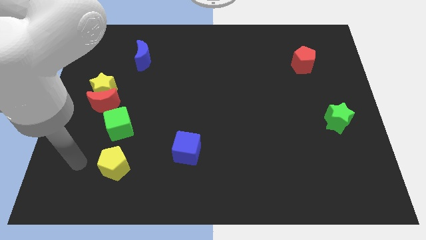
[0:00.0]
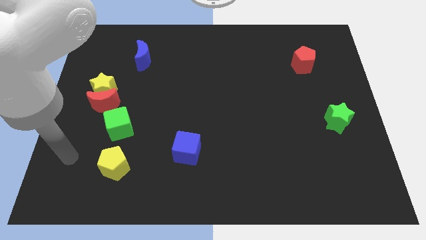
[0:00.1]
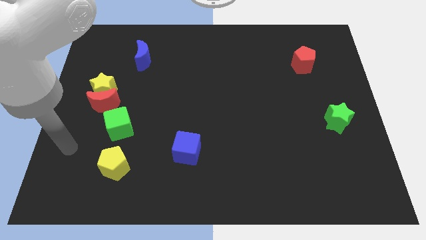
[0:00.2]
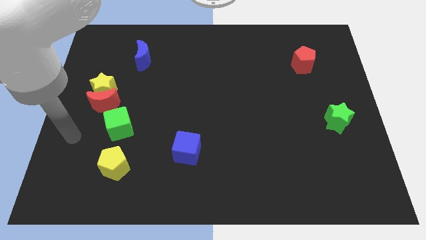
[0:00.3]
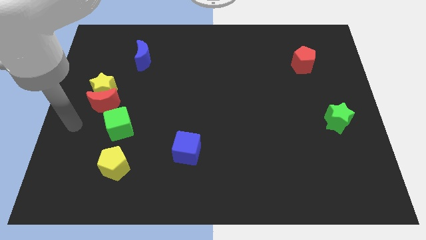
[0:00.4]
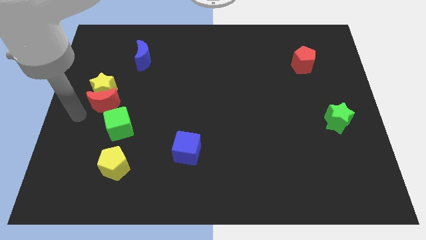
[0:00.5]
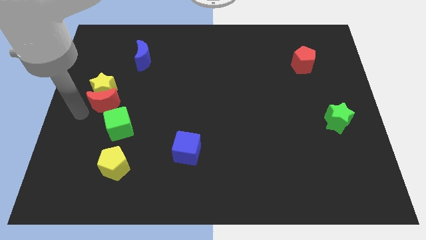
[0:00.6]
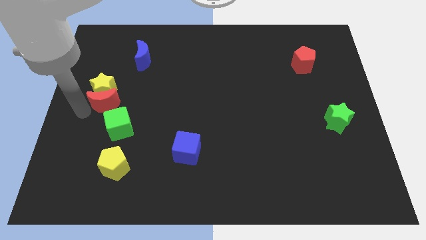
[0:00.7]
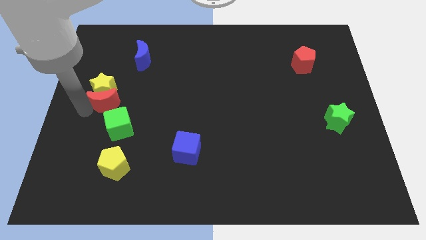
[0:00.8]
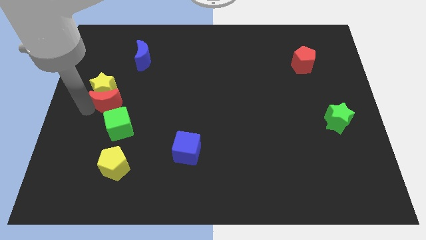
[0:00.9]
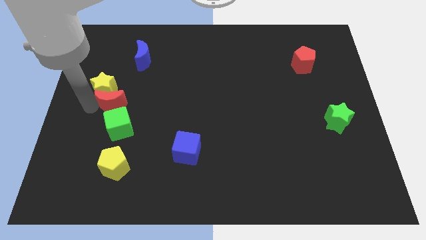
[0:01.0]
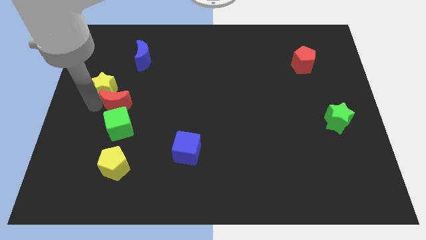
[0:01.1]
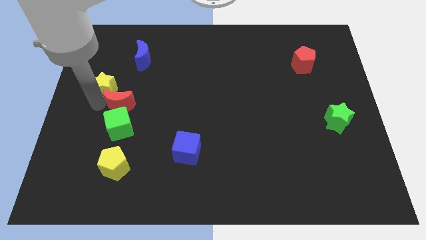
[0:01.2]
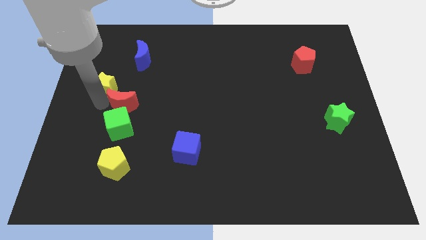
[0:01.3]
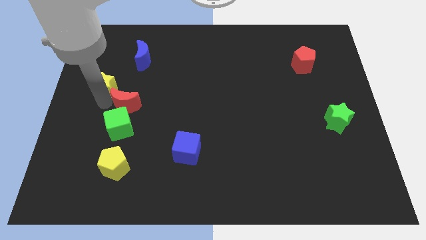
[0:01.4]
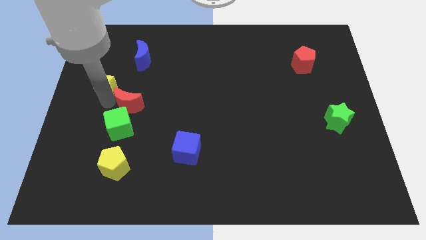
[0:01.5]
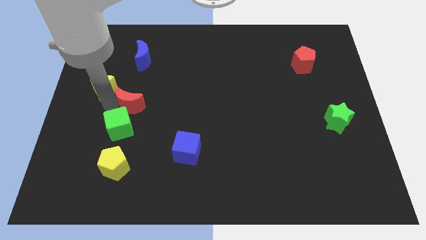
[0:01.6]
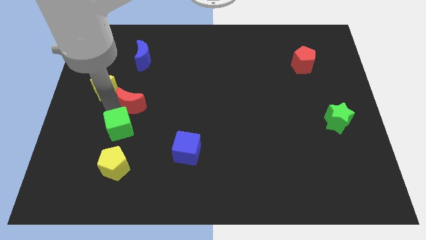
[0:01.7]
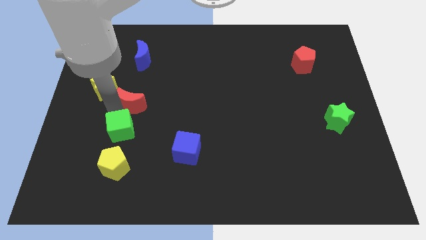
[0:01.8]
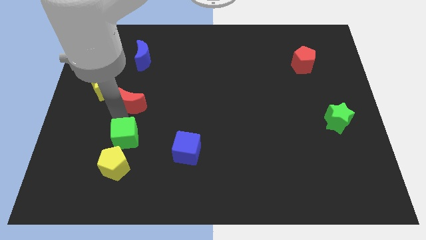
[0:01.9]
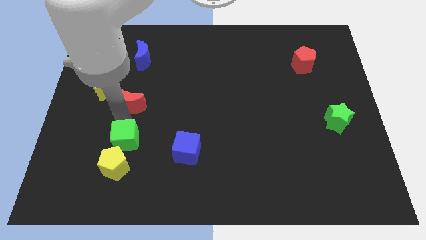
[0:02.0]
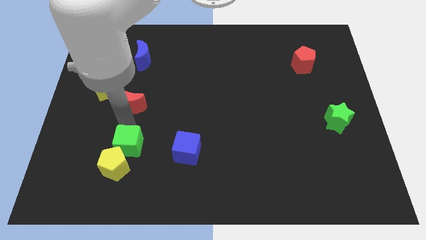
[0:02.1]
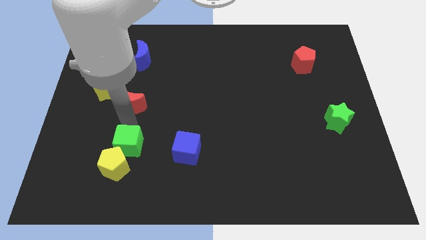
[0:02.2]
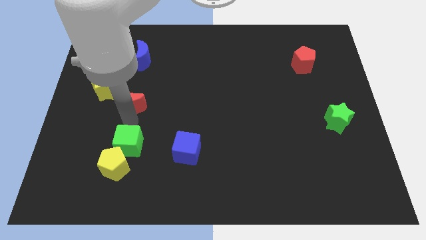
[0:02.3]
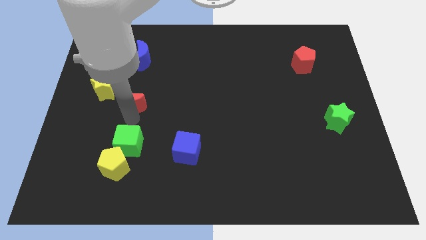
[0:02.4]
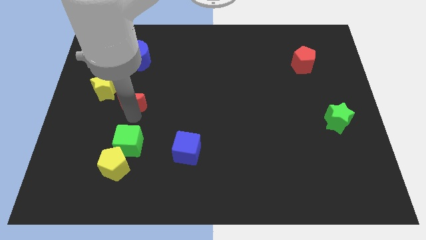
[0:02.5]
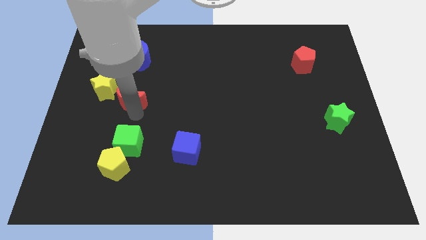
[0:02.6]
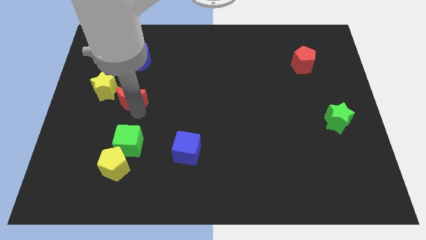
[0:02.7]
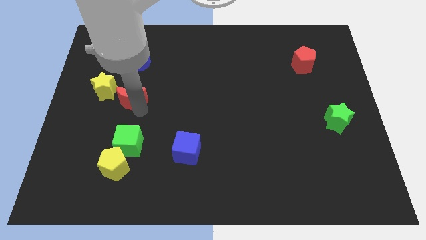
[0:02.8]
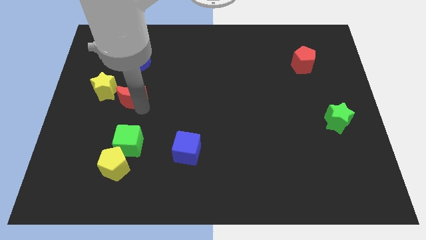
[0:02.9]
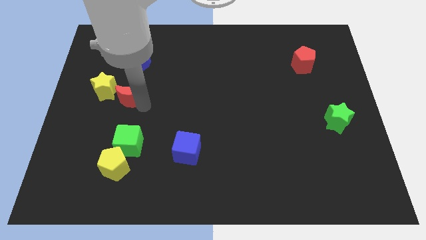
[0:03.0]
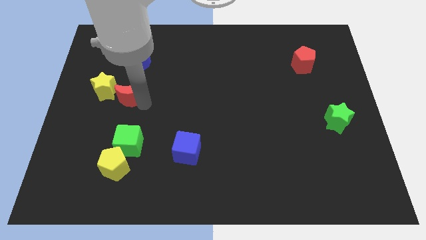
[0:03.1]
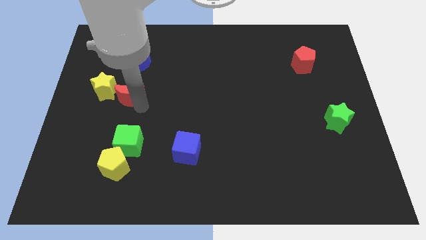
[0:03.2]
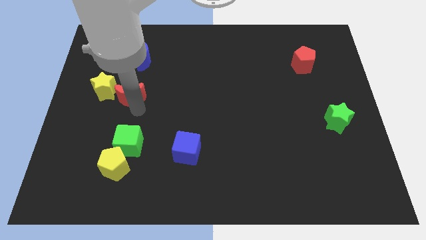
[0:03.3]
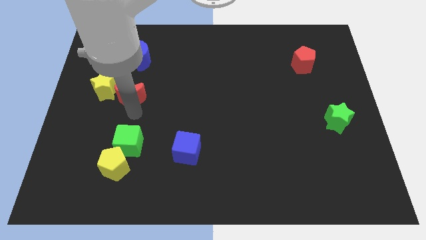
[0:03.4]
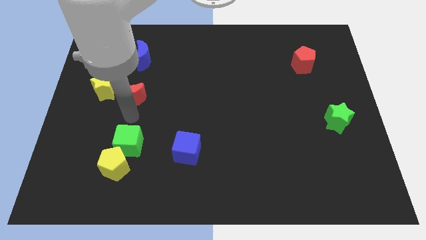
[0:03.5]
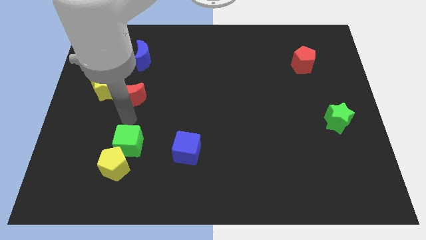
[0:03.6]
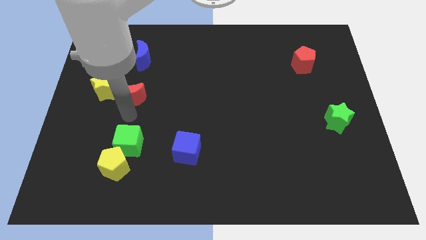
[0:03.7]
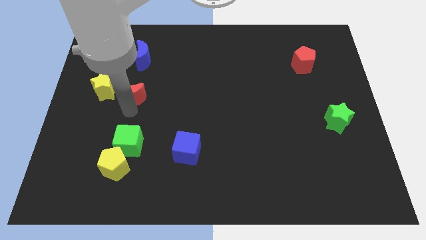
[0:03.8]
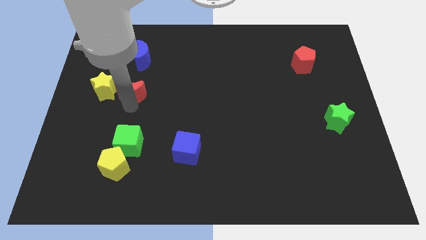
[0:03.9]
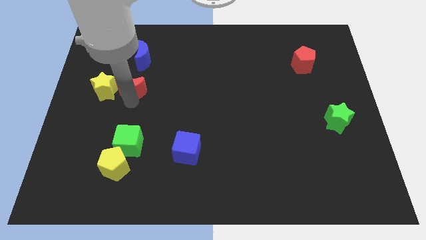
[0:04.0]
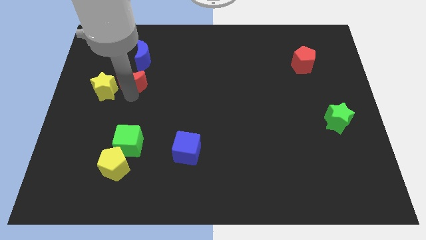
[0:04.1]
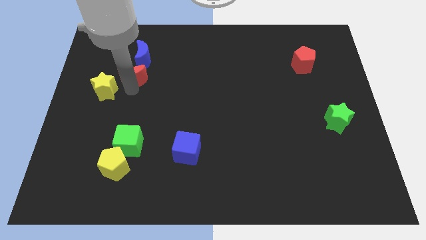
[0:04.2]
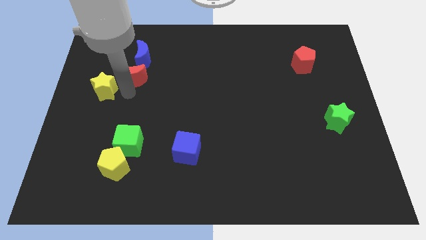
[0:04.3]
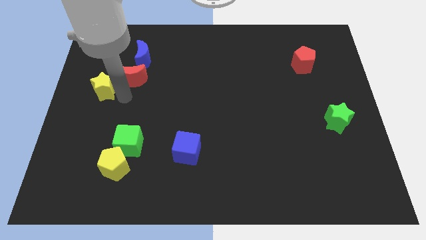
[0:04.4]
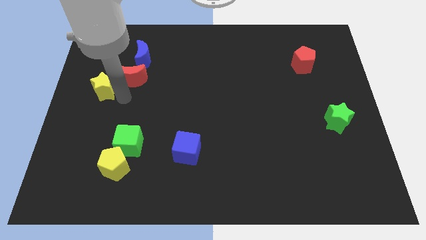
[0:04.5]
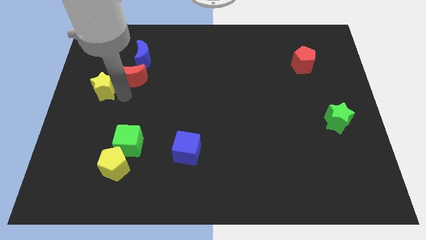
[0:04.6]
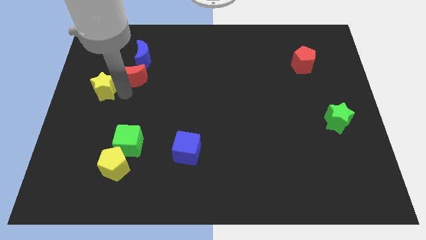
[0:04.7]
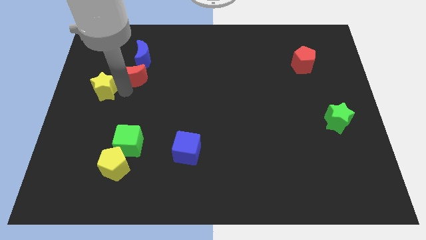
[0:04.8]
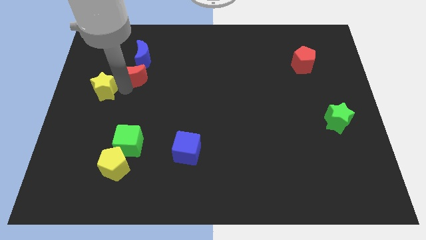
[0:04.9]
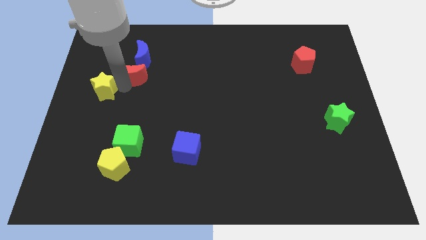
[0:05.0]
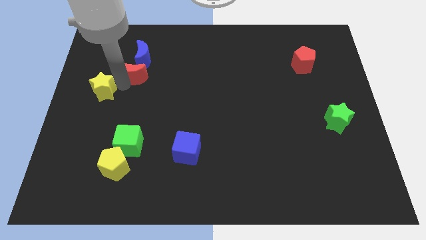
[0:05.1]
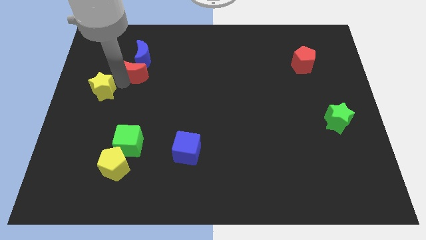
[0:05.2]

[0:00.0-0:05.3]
push the red moon close to the blue moon

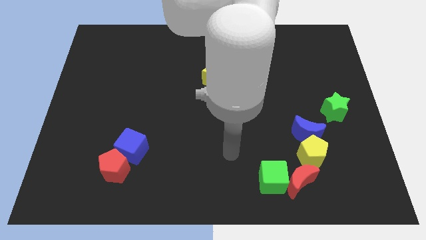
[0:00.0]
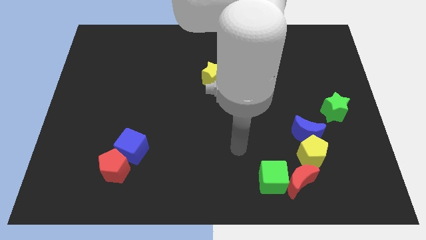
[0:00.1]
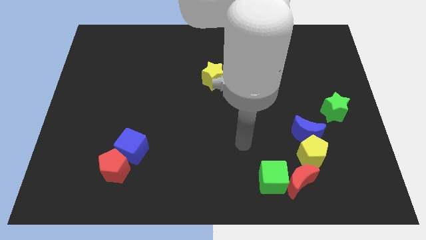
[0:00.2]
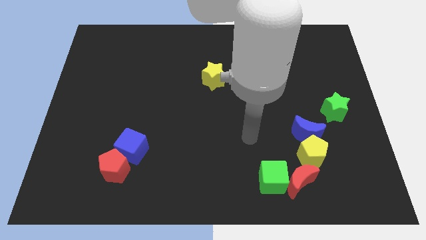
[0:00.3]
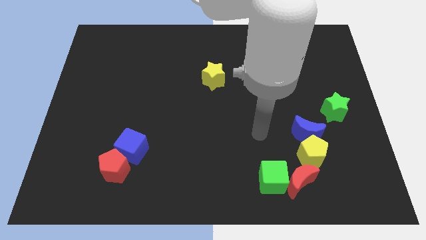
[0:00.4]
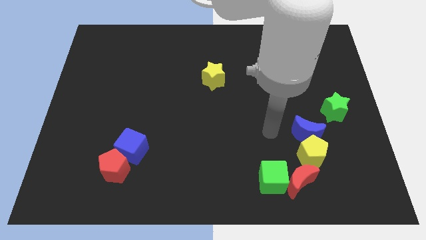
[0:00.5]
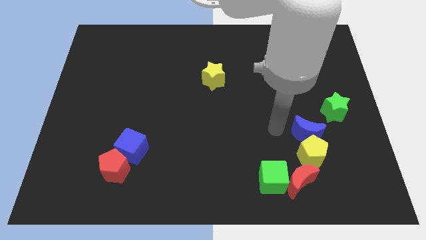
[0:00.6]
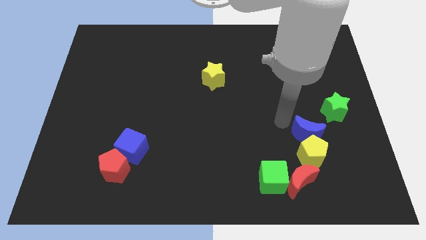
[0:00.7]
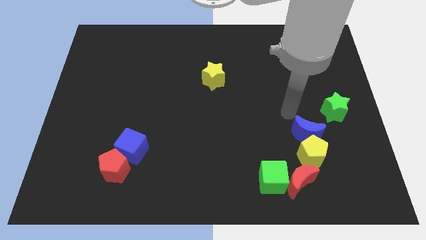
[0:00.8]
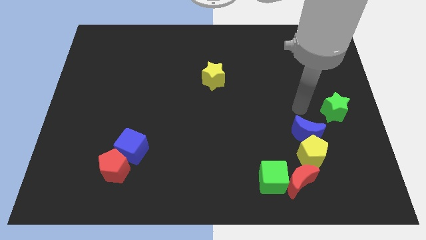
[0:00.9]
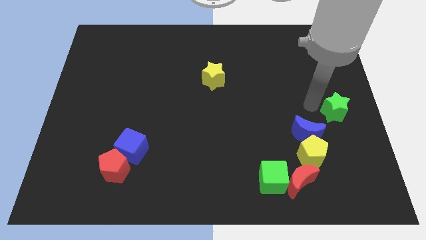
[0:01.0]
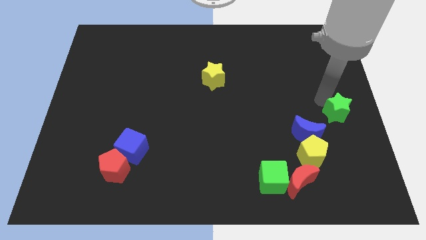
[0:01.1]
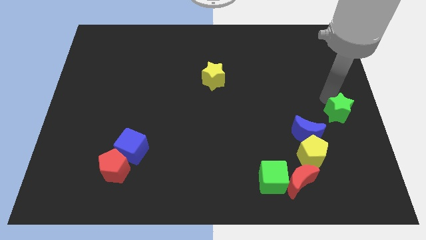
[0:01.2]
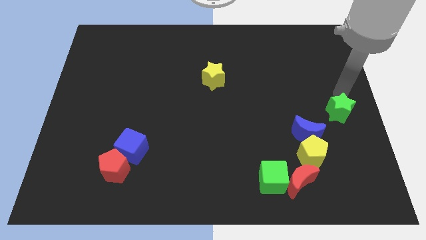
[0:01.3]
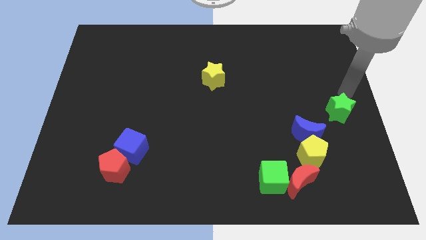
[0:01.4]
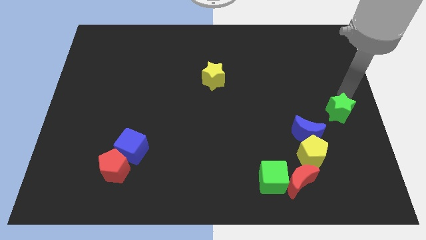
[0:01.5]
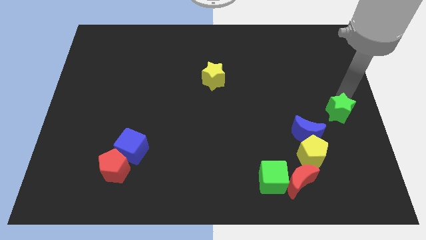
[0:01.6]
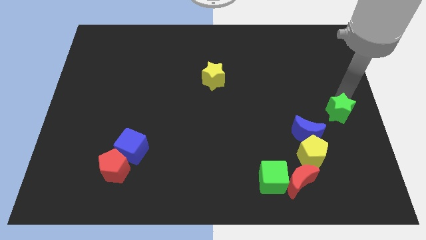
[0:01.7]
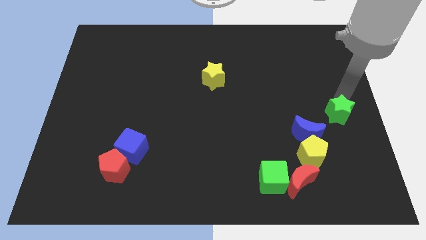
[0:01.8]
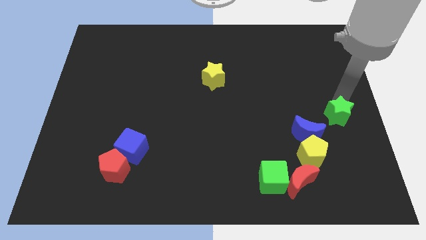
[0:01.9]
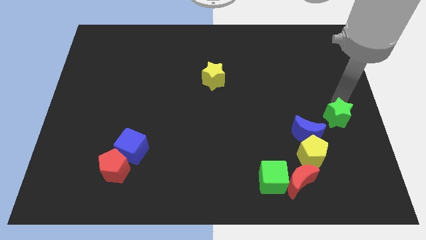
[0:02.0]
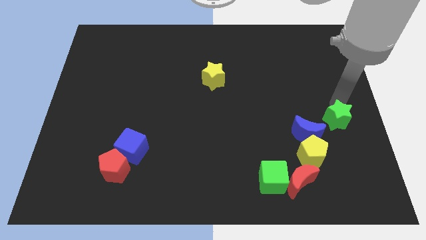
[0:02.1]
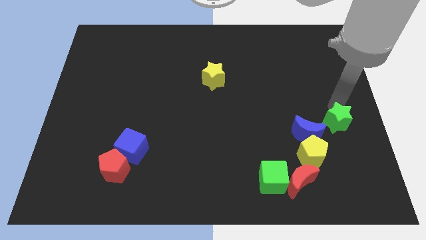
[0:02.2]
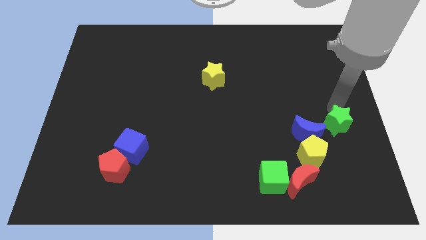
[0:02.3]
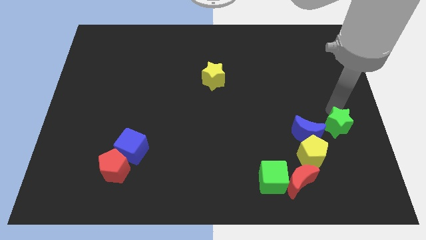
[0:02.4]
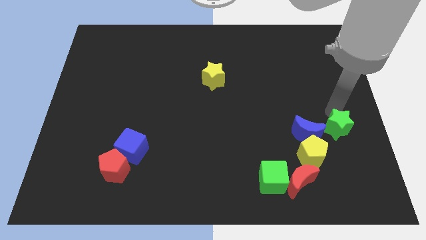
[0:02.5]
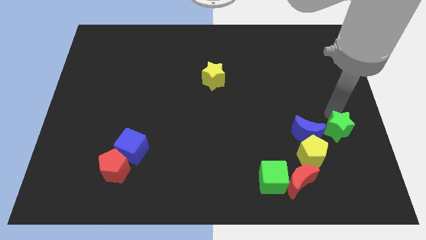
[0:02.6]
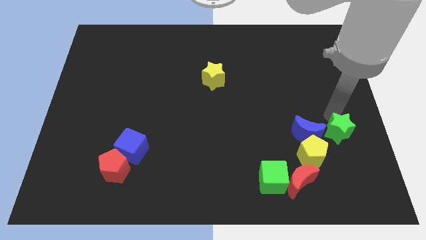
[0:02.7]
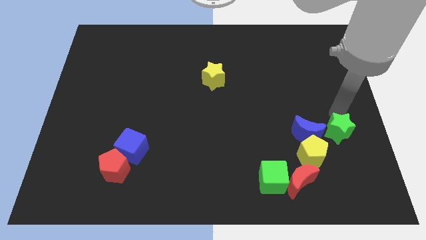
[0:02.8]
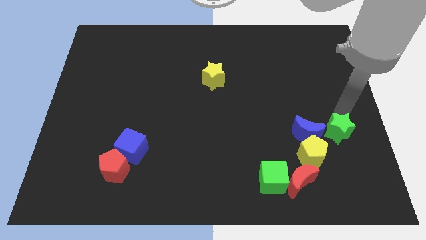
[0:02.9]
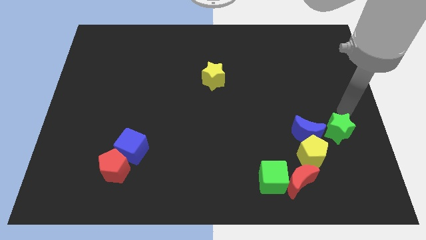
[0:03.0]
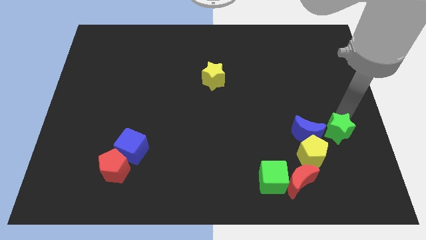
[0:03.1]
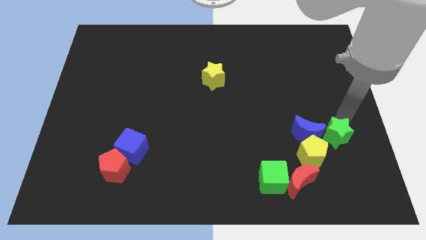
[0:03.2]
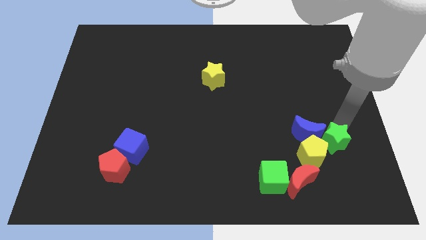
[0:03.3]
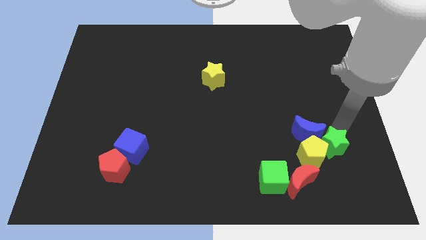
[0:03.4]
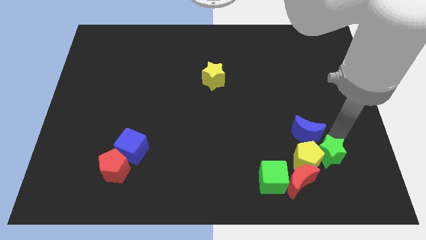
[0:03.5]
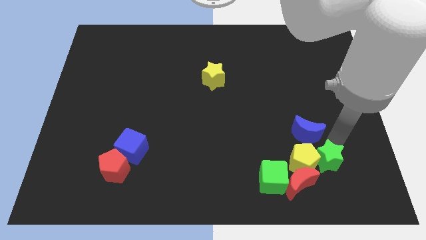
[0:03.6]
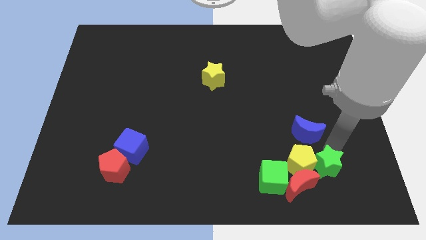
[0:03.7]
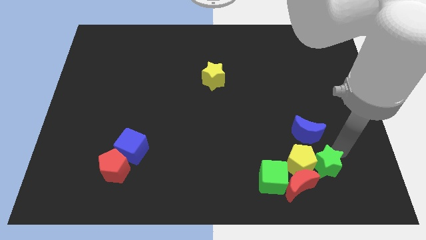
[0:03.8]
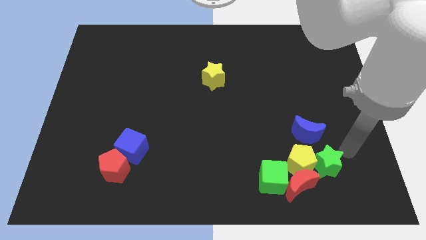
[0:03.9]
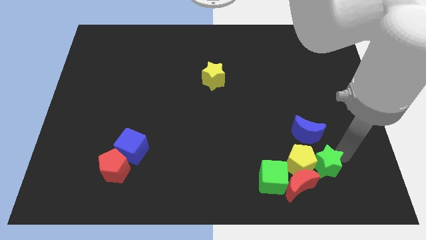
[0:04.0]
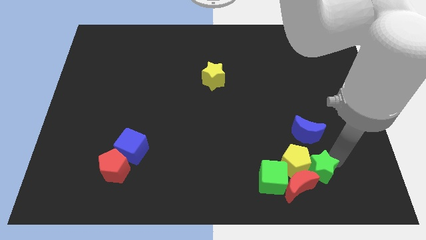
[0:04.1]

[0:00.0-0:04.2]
put the green star close to the red moon
